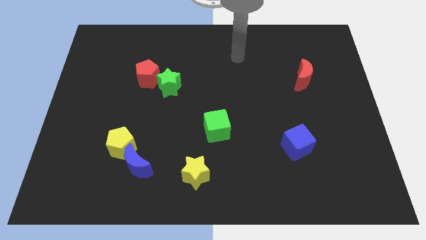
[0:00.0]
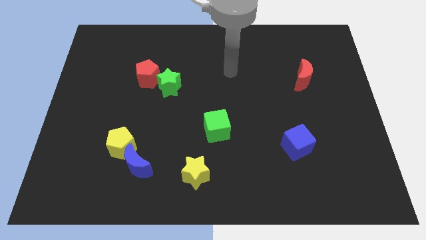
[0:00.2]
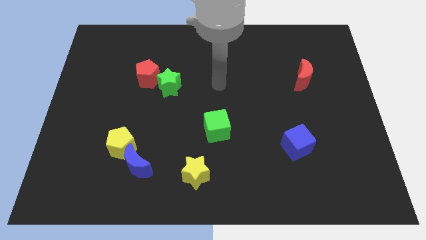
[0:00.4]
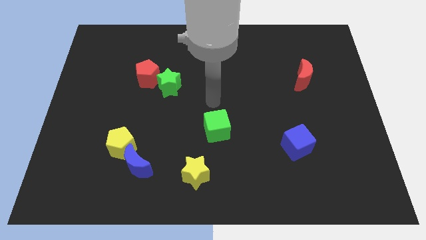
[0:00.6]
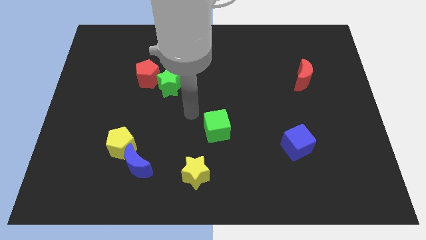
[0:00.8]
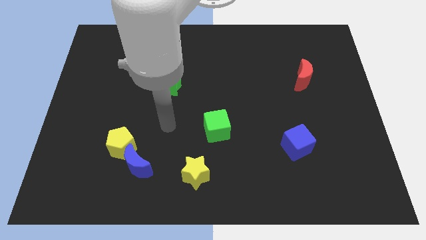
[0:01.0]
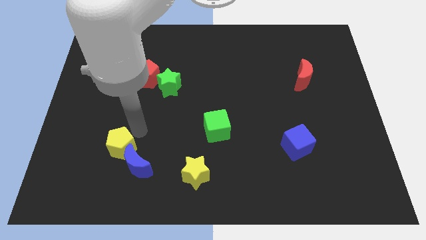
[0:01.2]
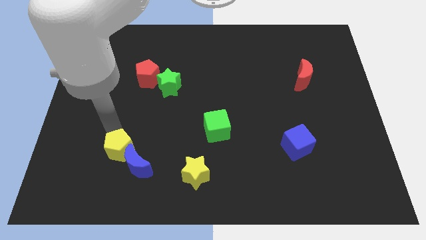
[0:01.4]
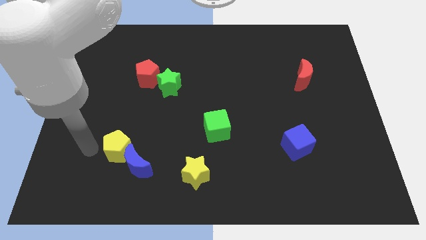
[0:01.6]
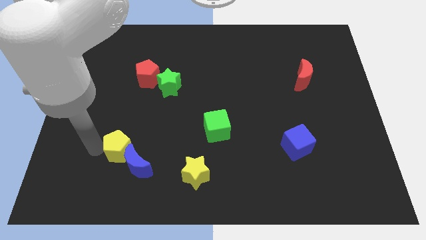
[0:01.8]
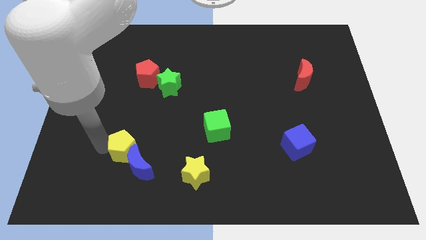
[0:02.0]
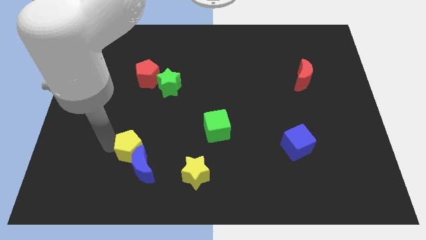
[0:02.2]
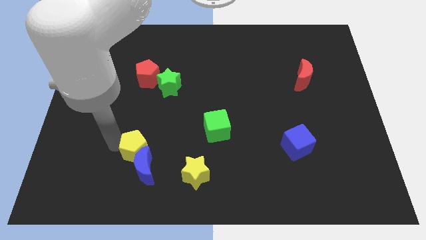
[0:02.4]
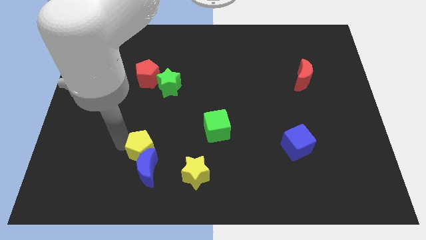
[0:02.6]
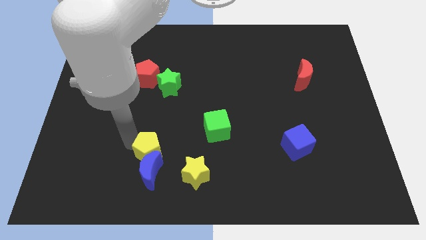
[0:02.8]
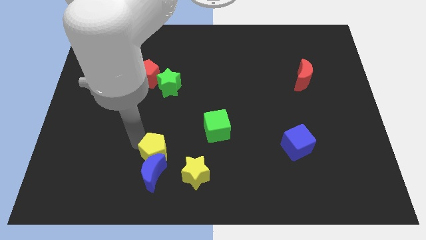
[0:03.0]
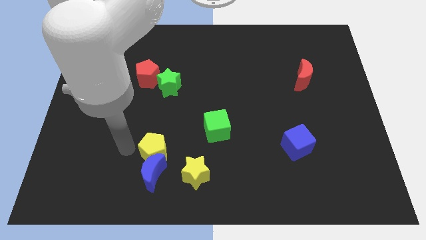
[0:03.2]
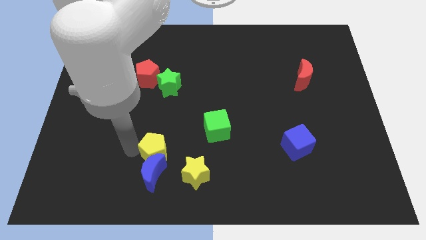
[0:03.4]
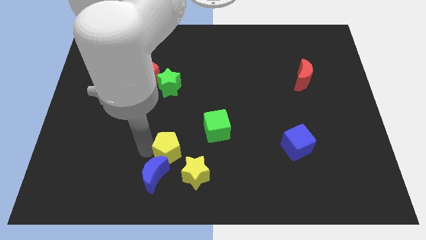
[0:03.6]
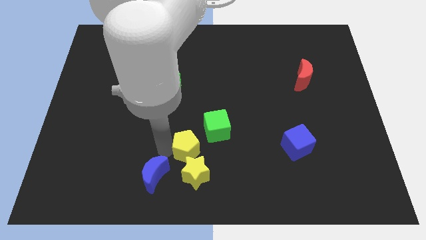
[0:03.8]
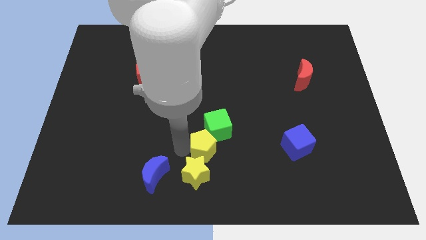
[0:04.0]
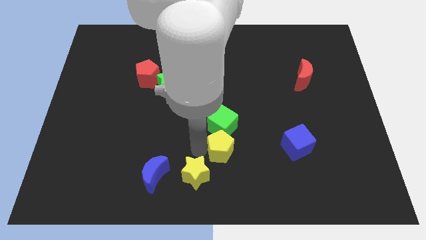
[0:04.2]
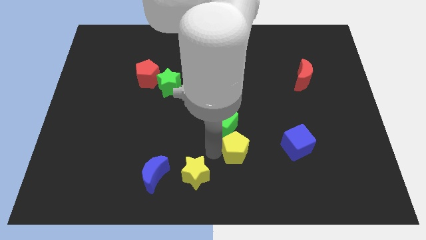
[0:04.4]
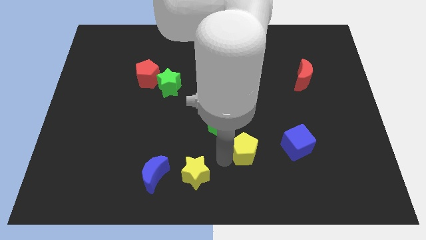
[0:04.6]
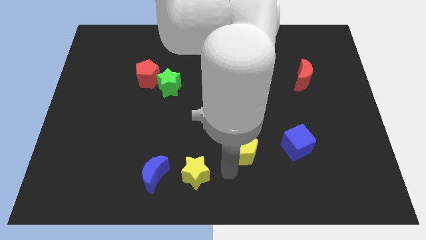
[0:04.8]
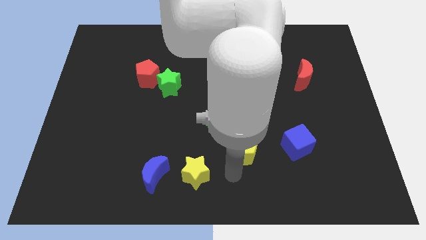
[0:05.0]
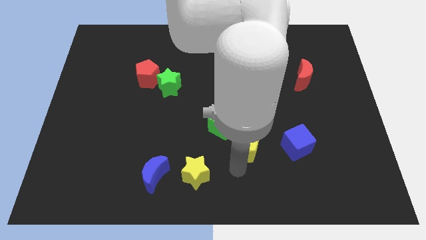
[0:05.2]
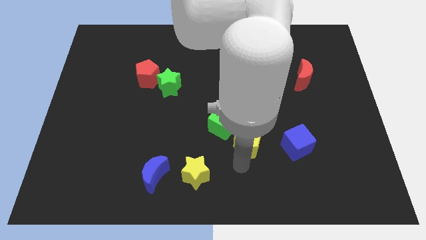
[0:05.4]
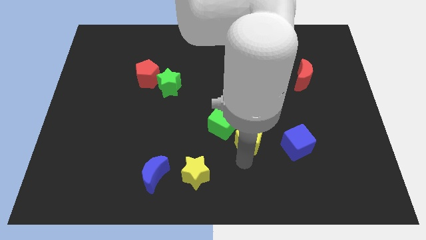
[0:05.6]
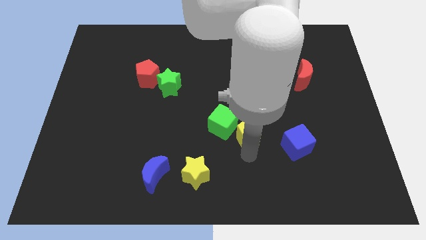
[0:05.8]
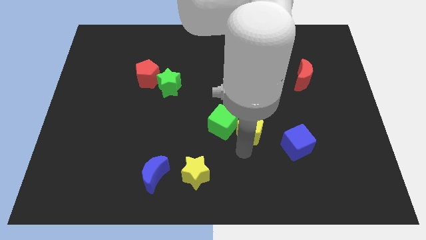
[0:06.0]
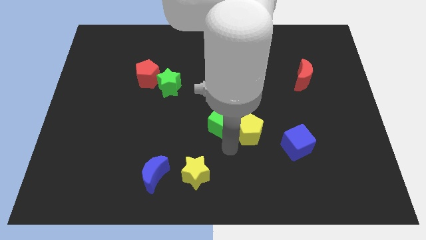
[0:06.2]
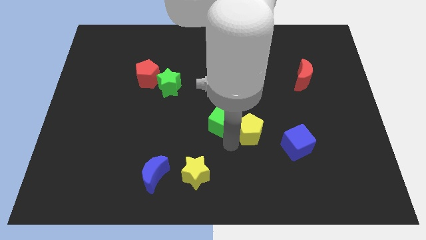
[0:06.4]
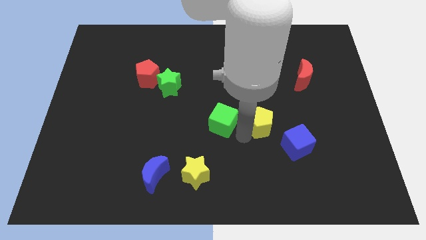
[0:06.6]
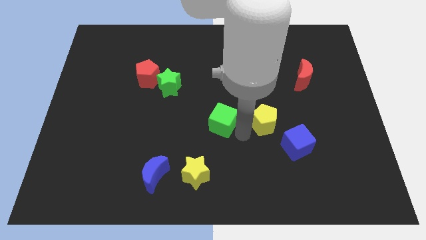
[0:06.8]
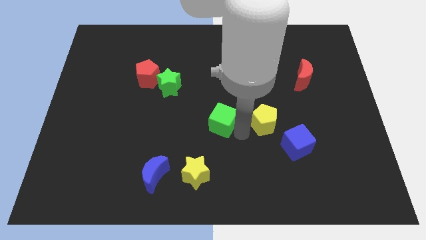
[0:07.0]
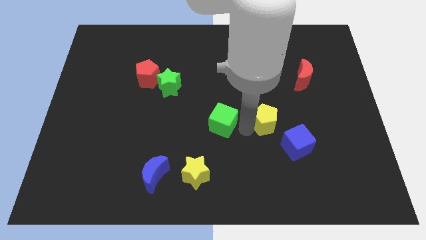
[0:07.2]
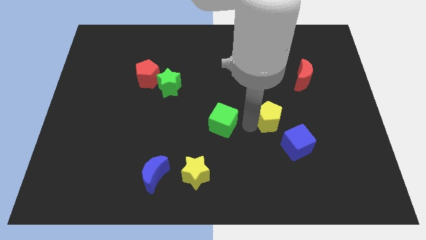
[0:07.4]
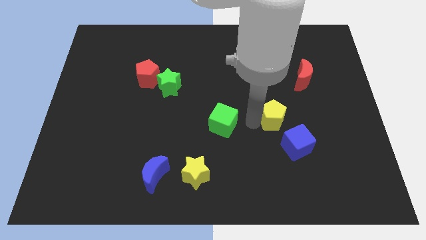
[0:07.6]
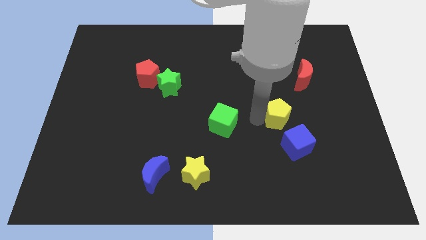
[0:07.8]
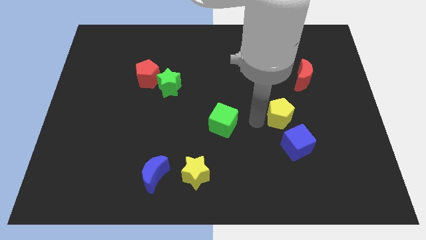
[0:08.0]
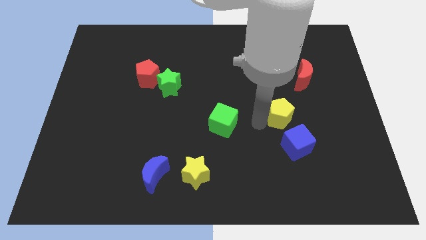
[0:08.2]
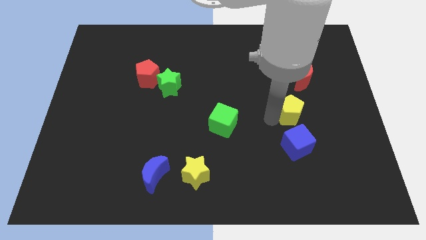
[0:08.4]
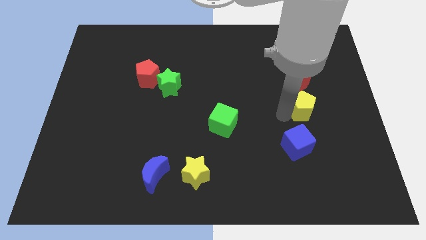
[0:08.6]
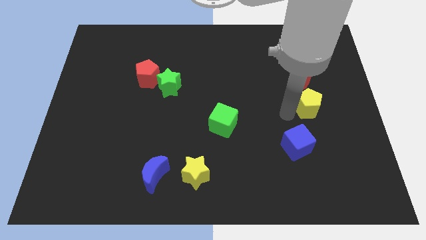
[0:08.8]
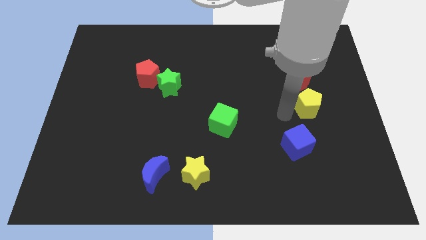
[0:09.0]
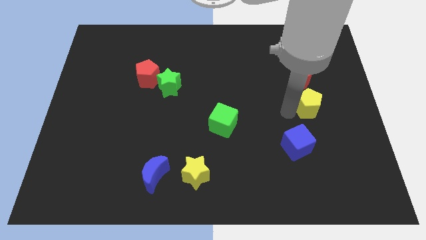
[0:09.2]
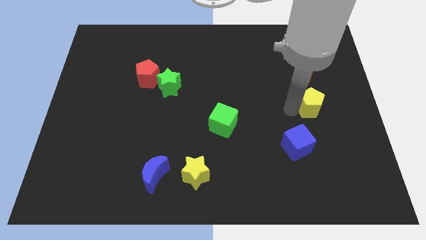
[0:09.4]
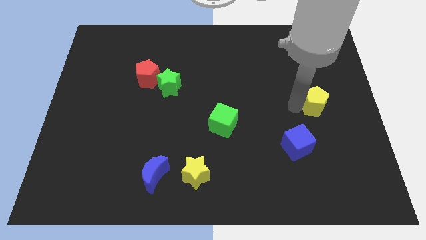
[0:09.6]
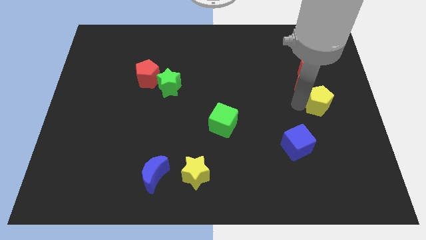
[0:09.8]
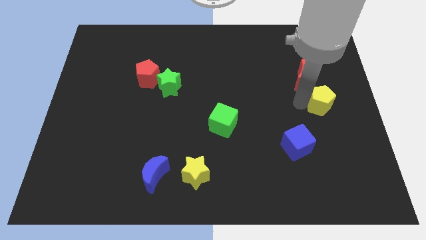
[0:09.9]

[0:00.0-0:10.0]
slide the yellow pentagon to the right side of the board
